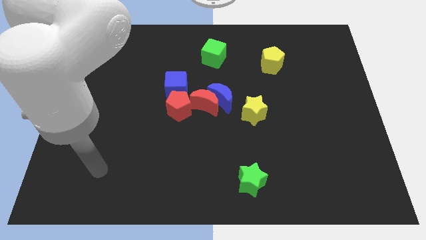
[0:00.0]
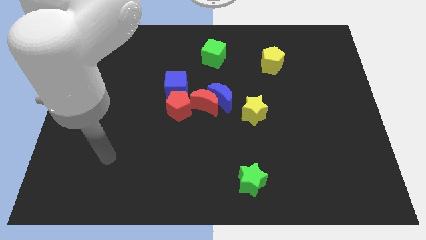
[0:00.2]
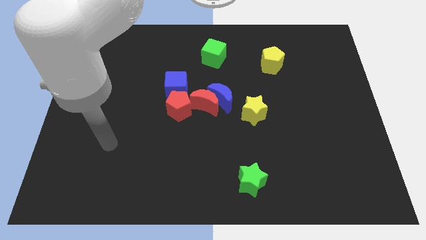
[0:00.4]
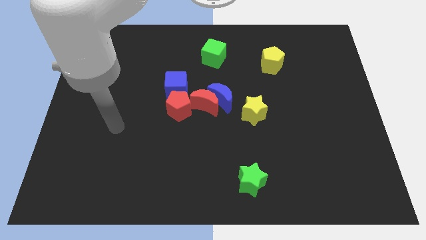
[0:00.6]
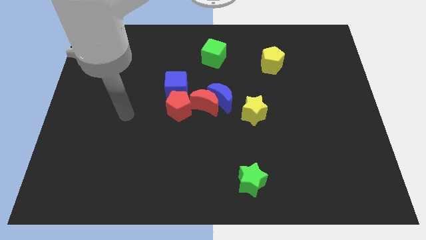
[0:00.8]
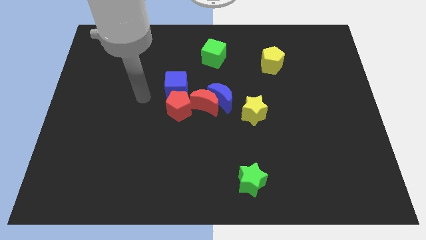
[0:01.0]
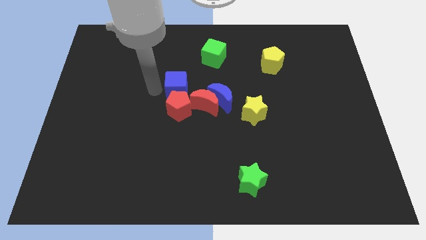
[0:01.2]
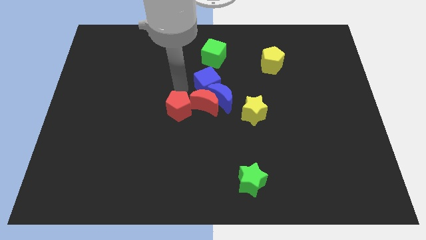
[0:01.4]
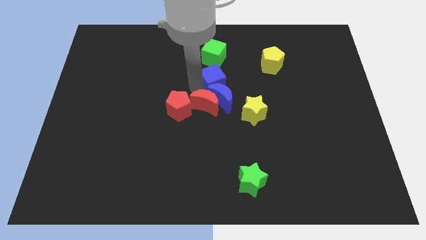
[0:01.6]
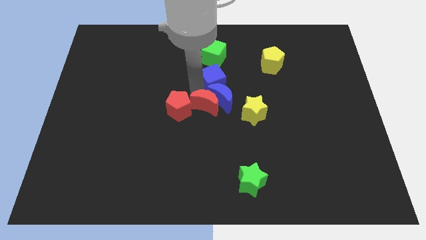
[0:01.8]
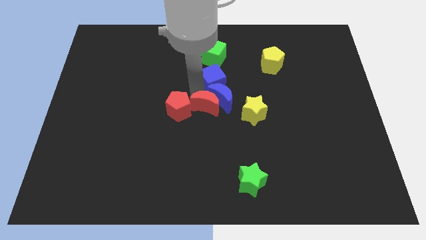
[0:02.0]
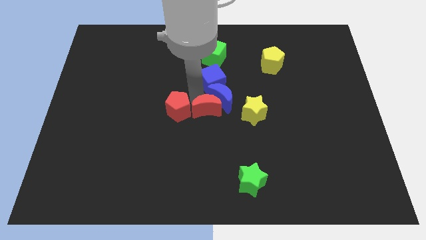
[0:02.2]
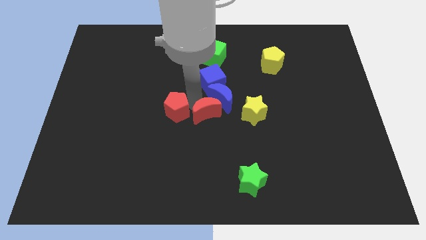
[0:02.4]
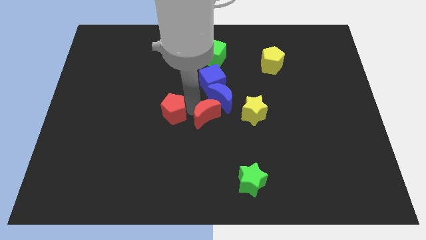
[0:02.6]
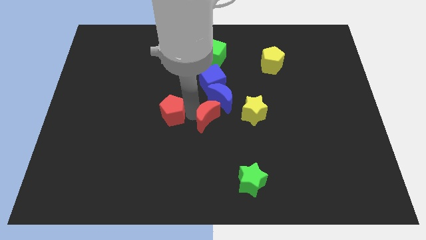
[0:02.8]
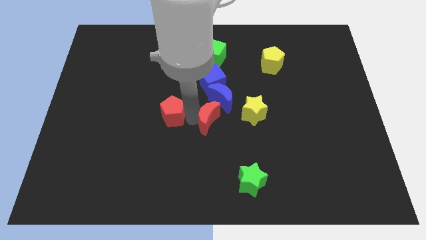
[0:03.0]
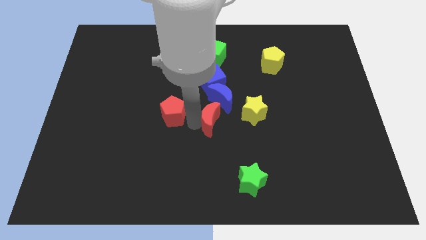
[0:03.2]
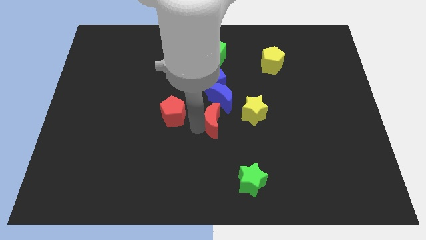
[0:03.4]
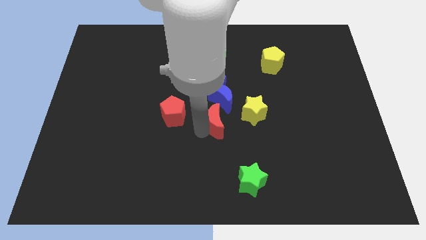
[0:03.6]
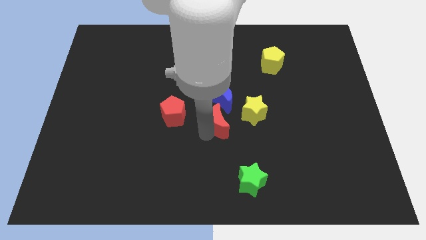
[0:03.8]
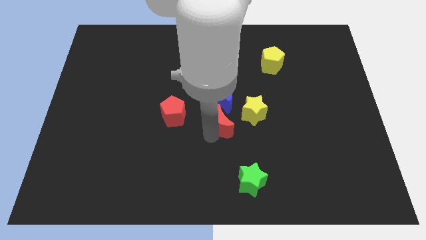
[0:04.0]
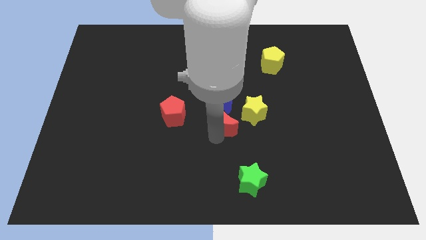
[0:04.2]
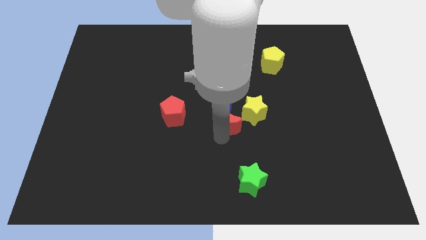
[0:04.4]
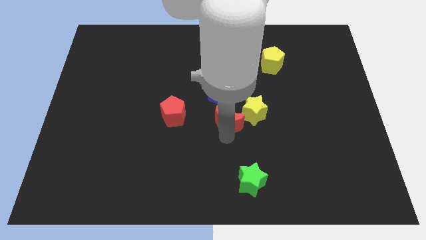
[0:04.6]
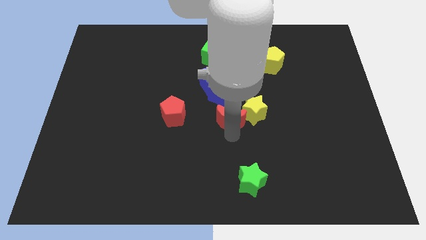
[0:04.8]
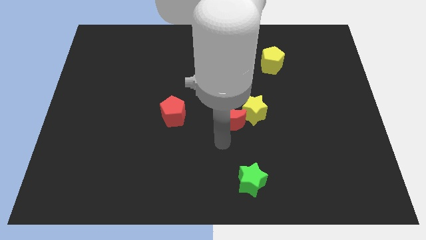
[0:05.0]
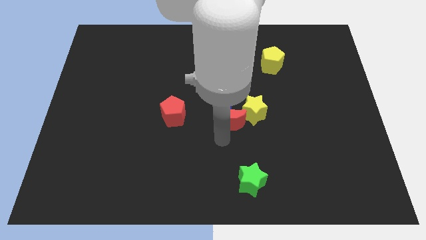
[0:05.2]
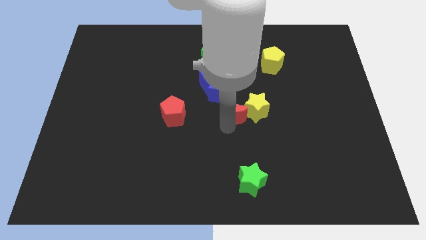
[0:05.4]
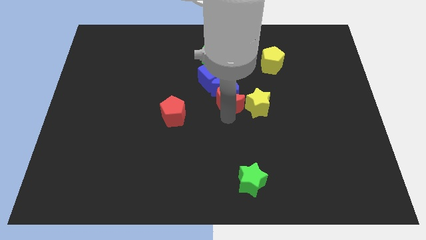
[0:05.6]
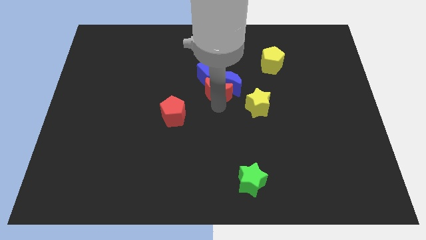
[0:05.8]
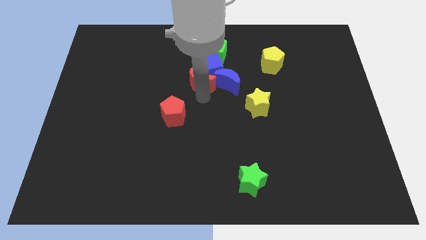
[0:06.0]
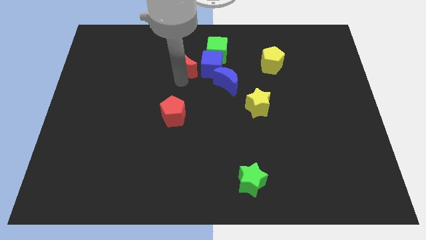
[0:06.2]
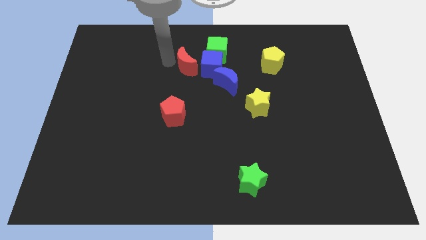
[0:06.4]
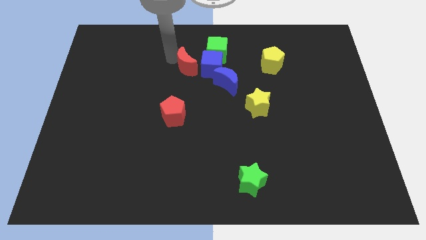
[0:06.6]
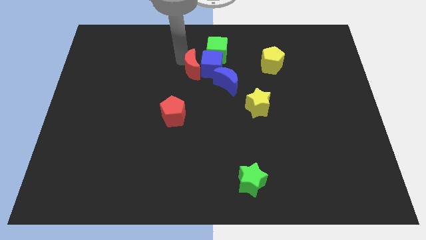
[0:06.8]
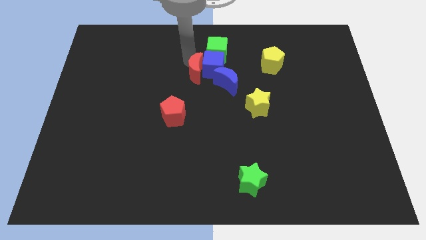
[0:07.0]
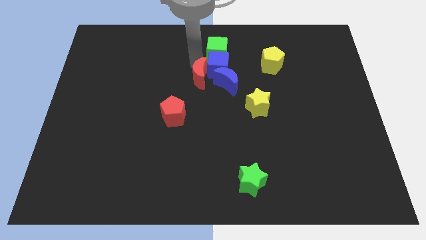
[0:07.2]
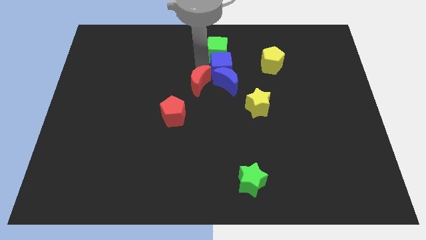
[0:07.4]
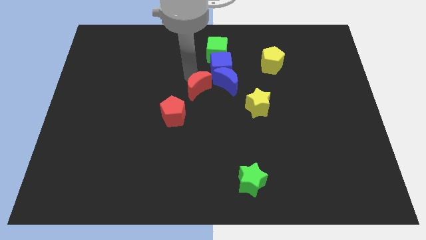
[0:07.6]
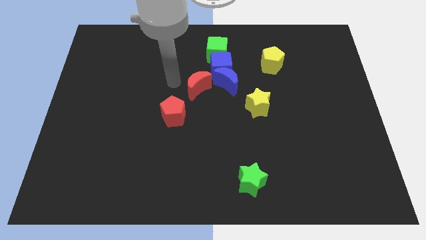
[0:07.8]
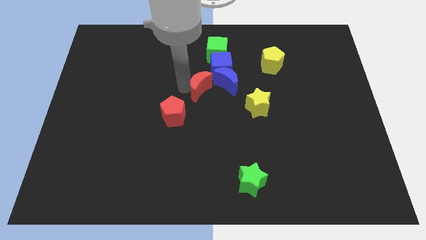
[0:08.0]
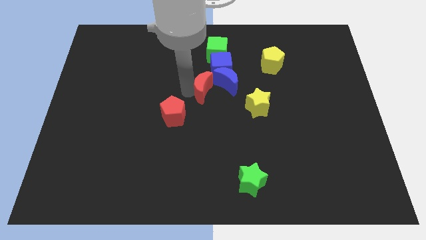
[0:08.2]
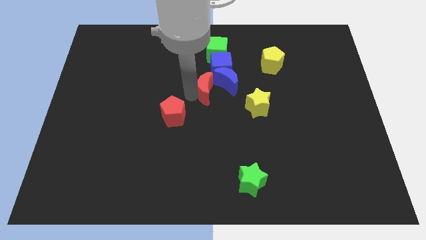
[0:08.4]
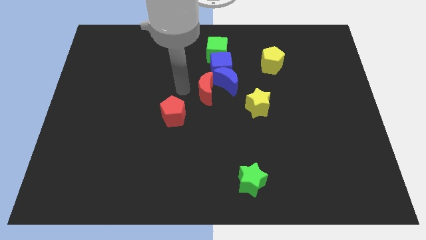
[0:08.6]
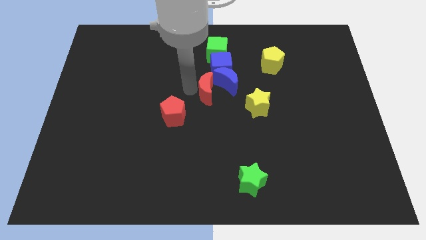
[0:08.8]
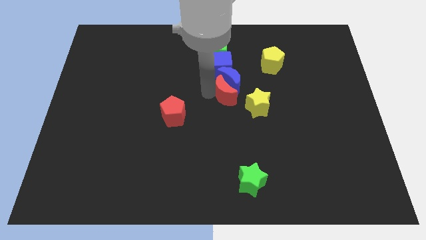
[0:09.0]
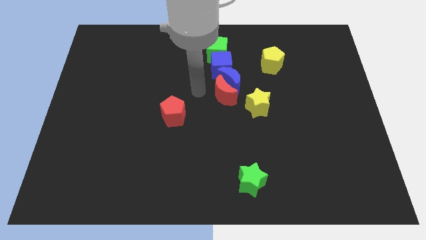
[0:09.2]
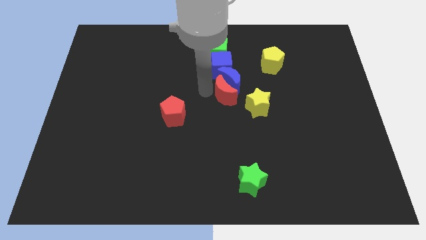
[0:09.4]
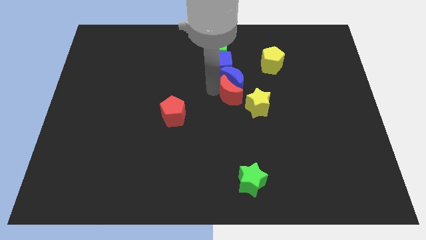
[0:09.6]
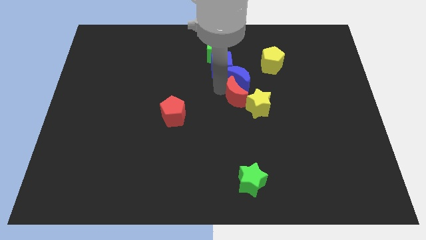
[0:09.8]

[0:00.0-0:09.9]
move the red moon right a little

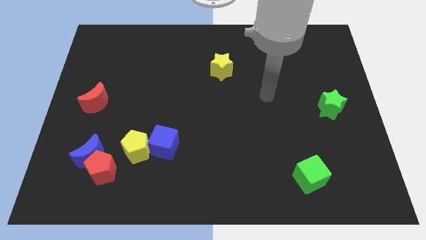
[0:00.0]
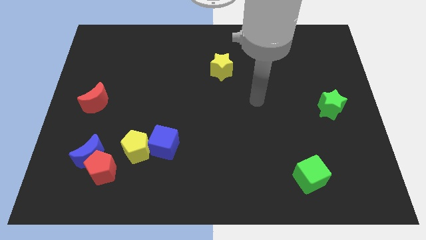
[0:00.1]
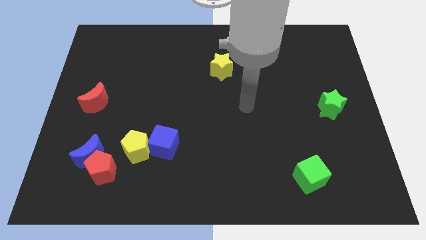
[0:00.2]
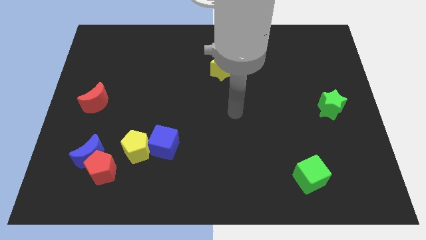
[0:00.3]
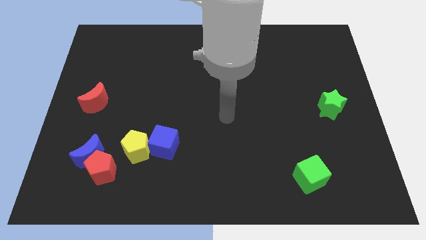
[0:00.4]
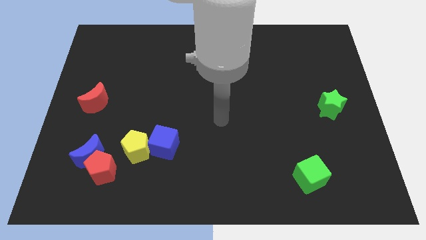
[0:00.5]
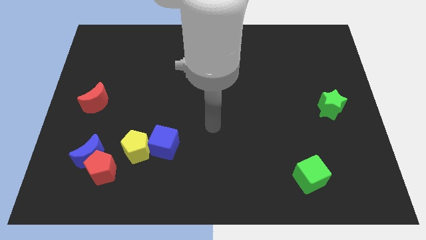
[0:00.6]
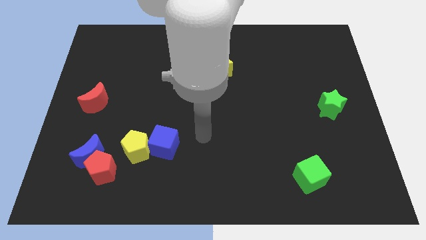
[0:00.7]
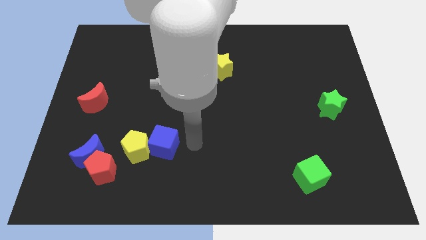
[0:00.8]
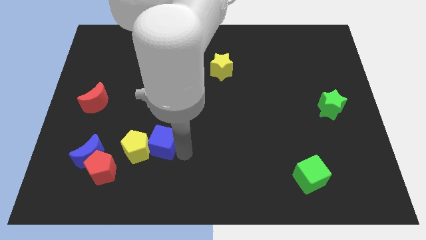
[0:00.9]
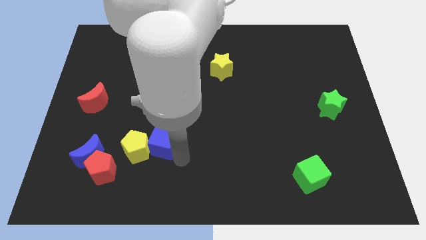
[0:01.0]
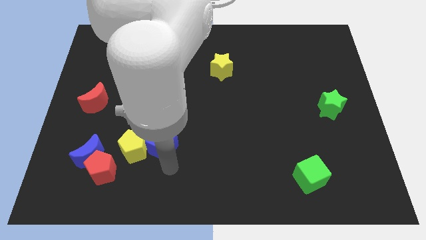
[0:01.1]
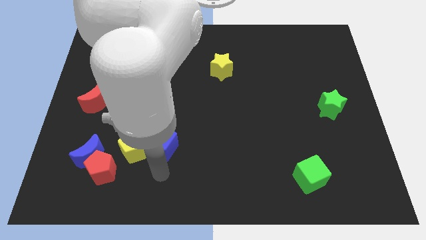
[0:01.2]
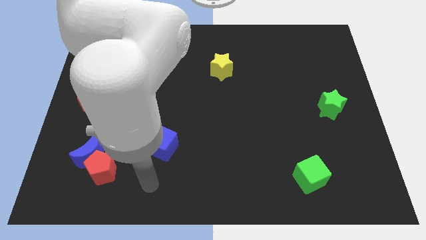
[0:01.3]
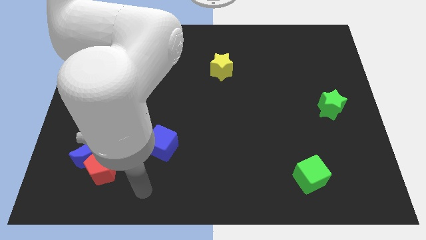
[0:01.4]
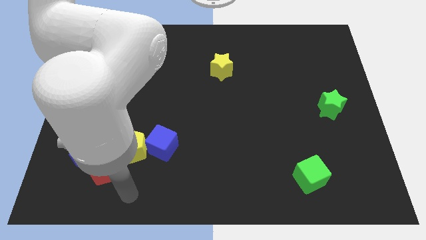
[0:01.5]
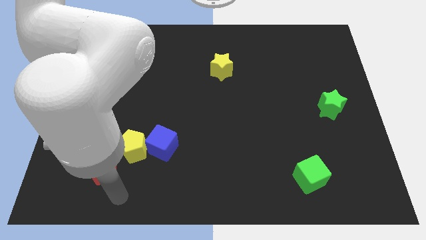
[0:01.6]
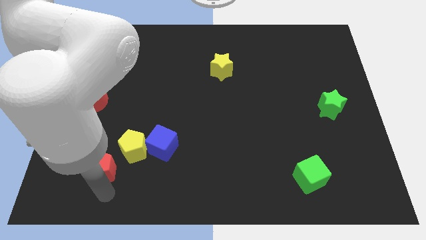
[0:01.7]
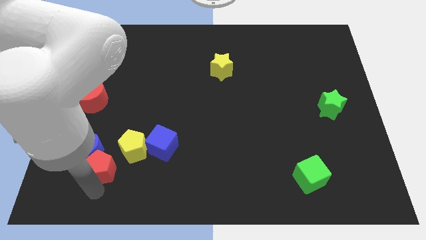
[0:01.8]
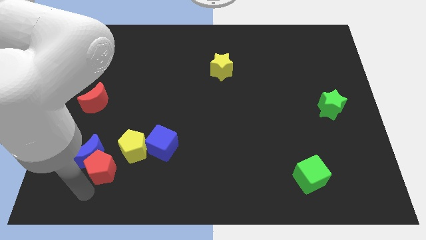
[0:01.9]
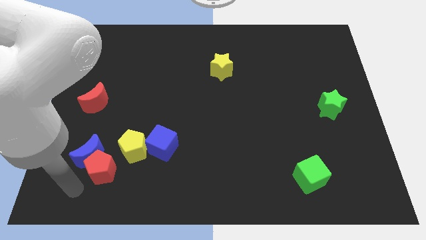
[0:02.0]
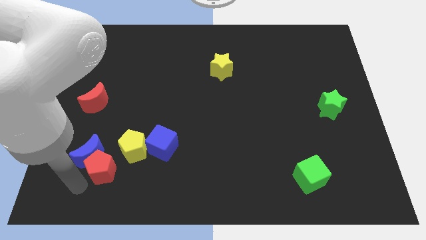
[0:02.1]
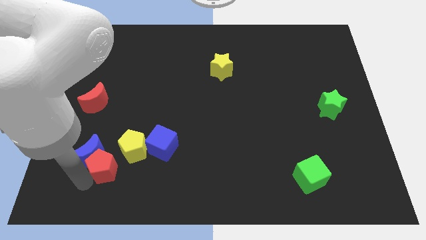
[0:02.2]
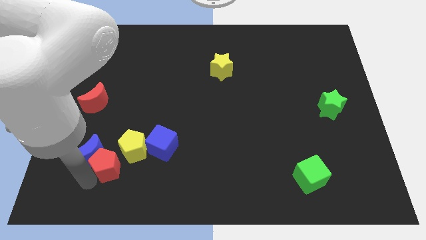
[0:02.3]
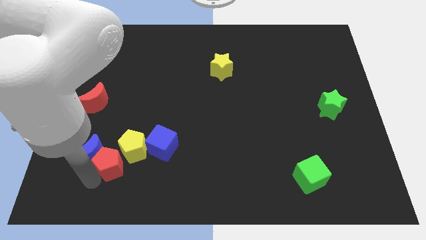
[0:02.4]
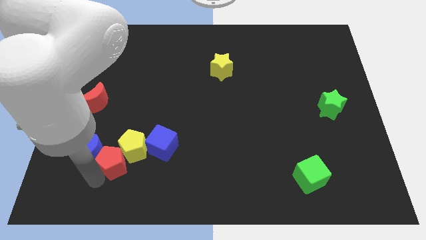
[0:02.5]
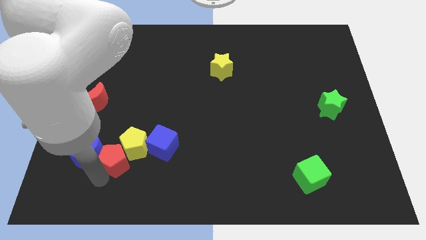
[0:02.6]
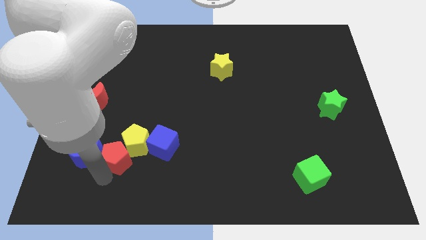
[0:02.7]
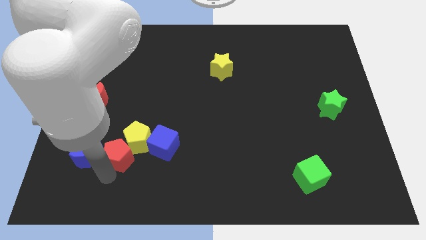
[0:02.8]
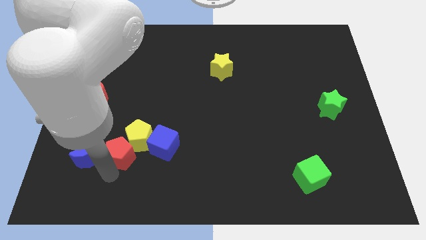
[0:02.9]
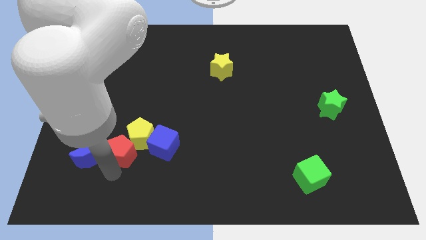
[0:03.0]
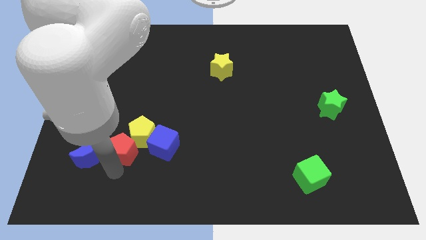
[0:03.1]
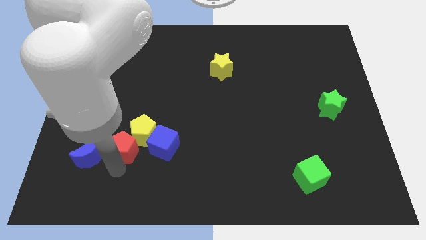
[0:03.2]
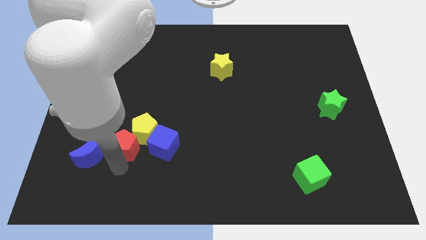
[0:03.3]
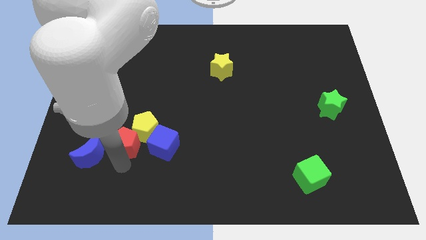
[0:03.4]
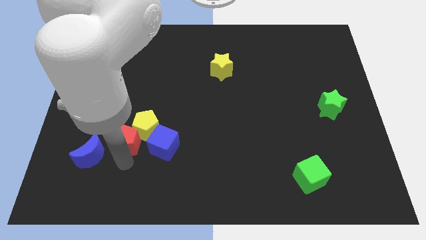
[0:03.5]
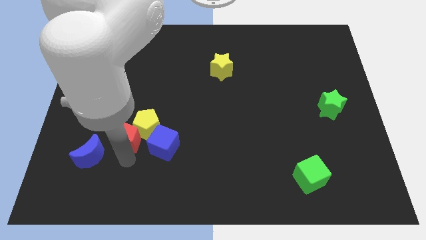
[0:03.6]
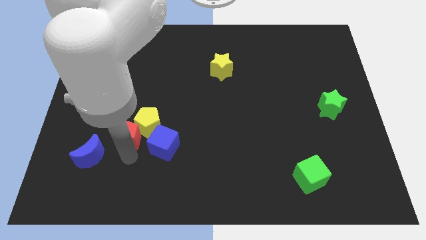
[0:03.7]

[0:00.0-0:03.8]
push the red pentagon upwards slightly
